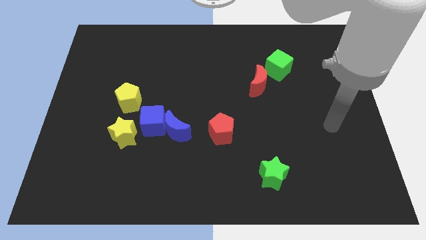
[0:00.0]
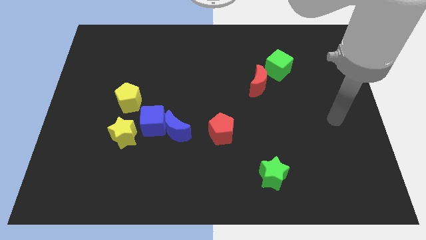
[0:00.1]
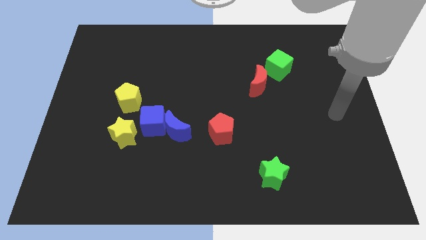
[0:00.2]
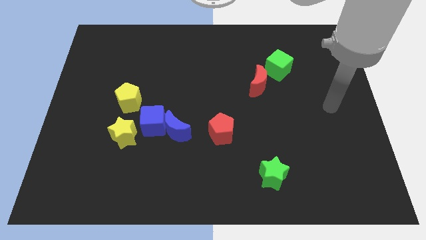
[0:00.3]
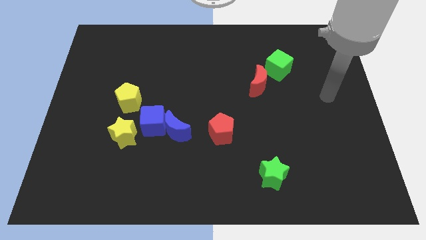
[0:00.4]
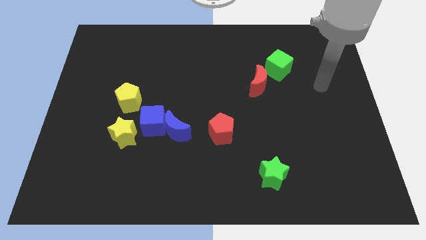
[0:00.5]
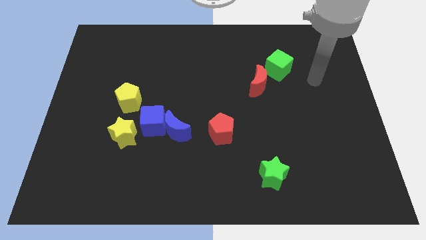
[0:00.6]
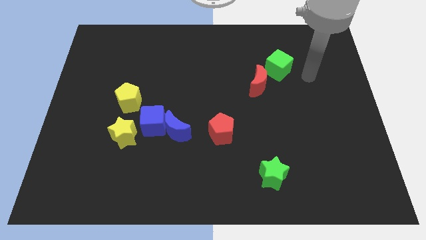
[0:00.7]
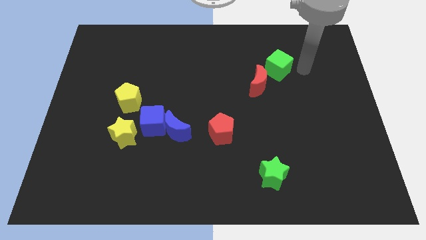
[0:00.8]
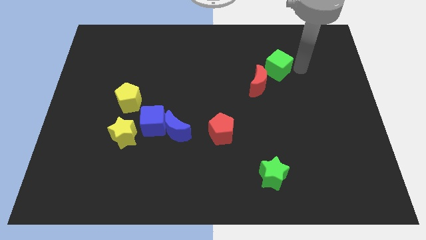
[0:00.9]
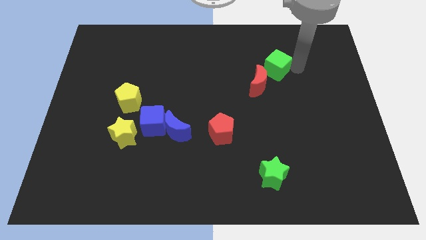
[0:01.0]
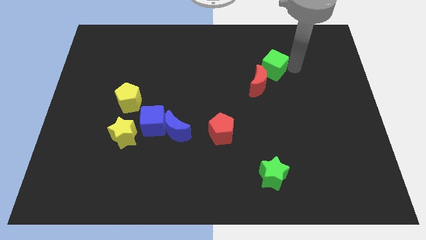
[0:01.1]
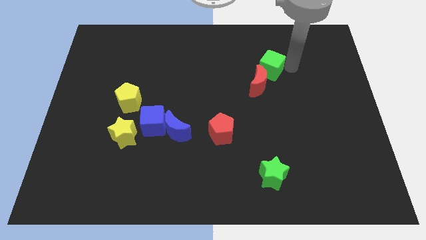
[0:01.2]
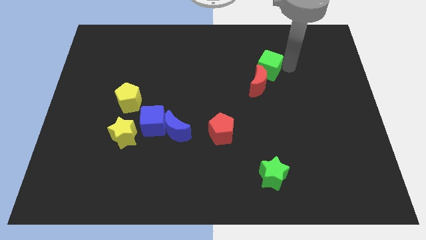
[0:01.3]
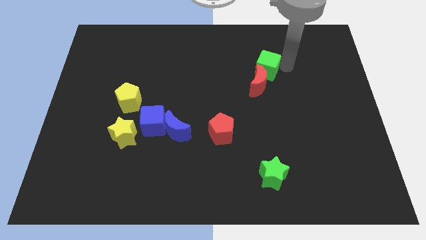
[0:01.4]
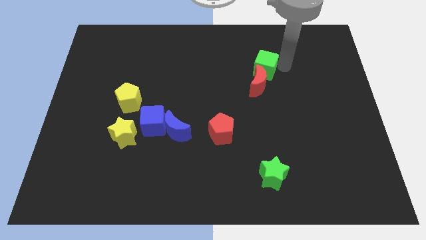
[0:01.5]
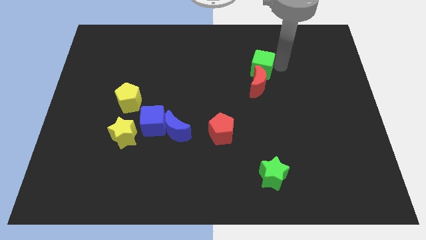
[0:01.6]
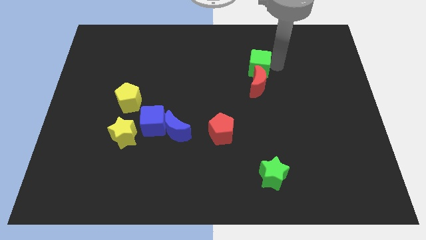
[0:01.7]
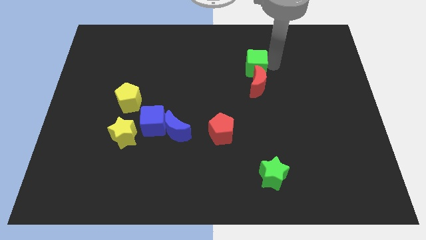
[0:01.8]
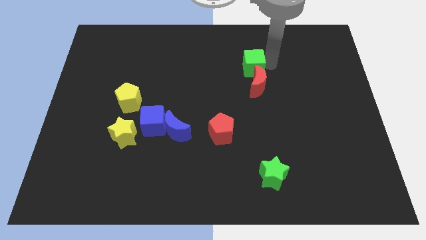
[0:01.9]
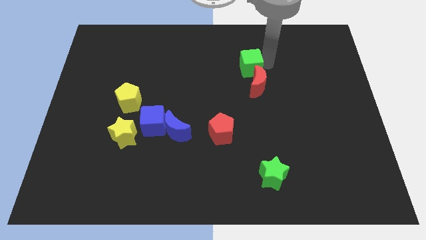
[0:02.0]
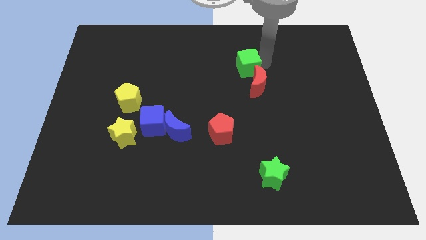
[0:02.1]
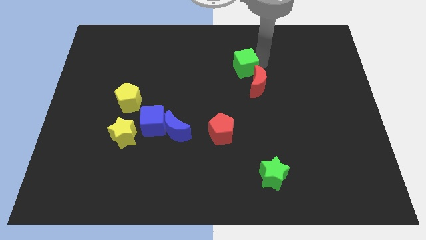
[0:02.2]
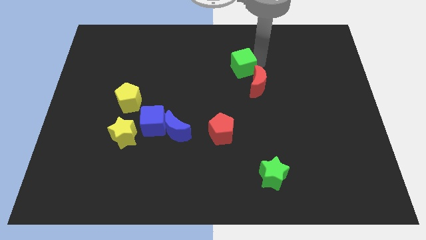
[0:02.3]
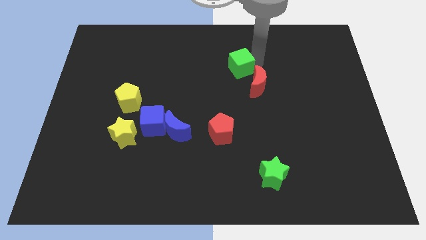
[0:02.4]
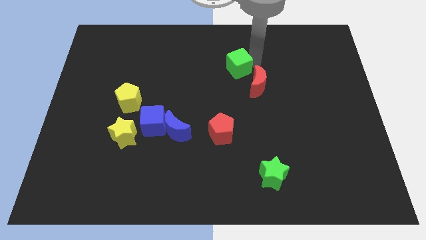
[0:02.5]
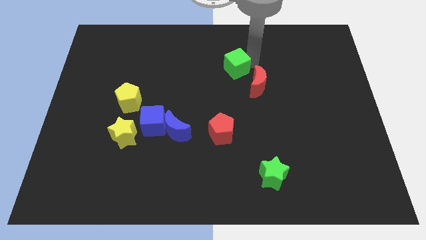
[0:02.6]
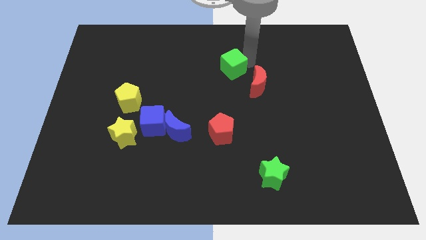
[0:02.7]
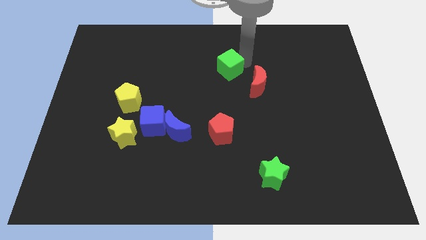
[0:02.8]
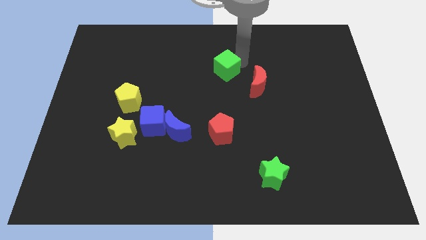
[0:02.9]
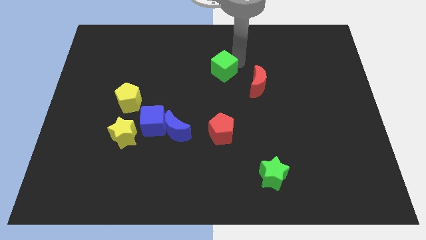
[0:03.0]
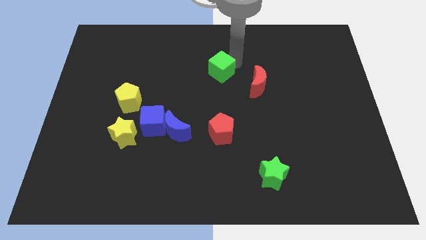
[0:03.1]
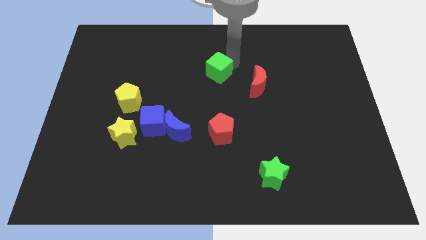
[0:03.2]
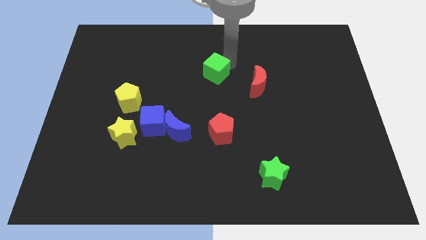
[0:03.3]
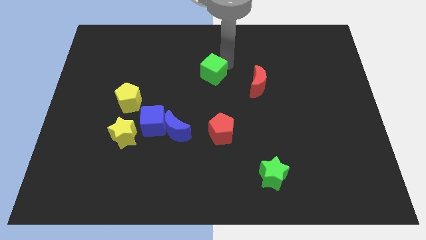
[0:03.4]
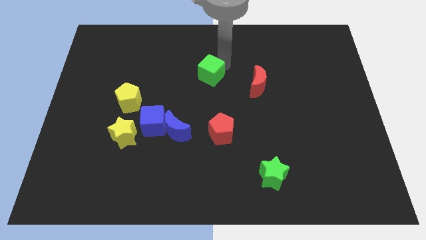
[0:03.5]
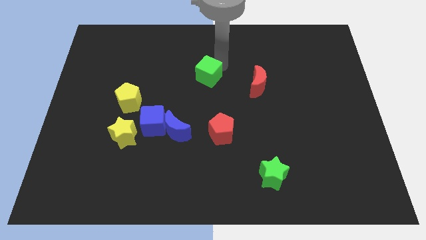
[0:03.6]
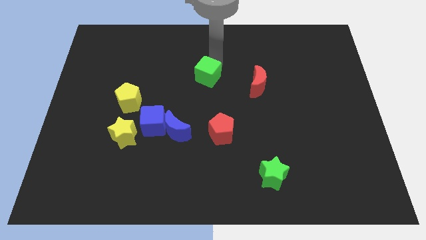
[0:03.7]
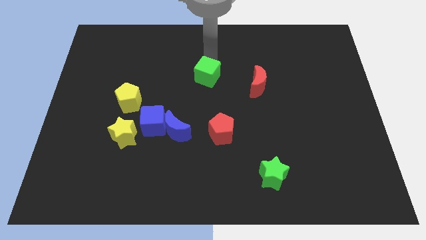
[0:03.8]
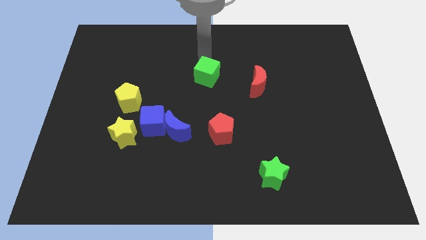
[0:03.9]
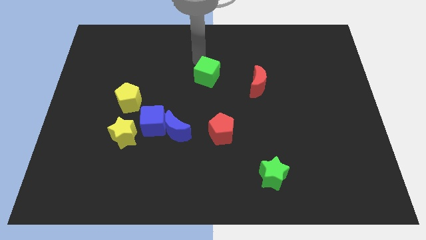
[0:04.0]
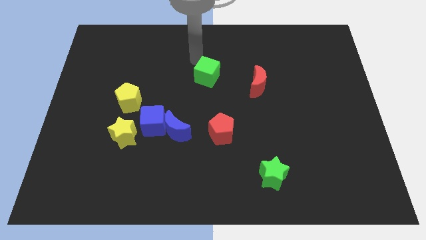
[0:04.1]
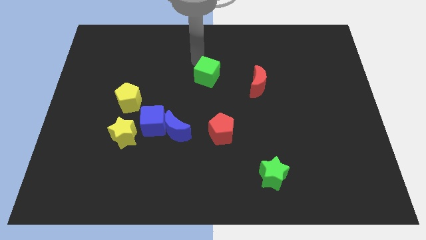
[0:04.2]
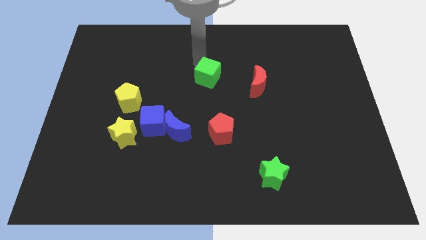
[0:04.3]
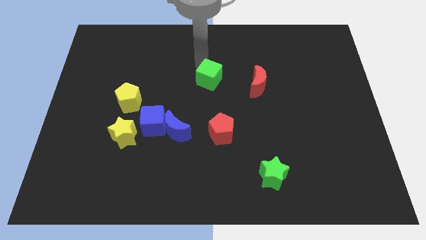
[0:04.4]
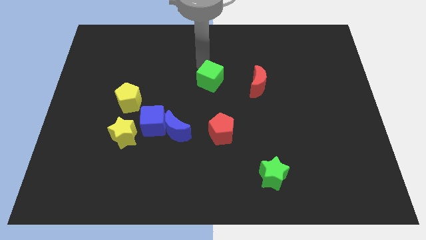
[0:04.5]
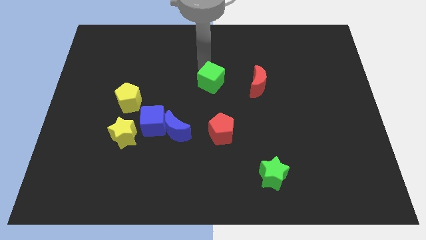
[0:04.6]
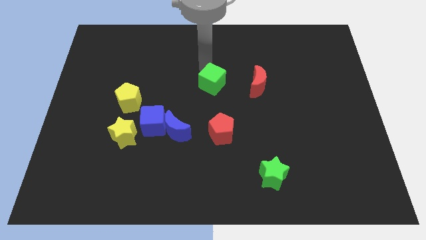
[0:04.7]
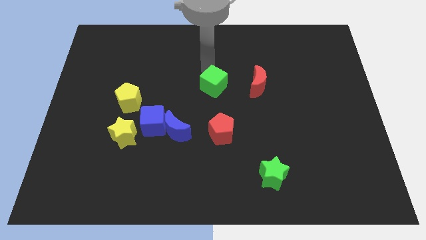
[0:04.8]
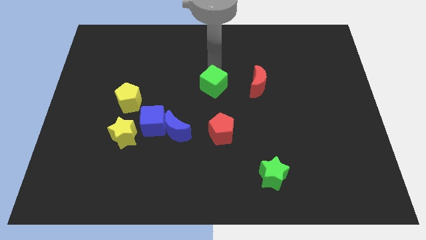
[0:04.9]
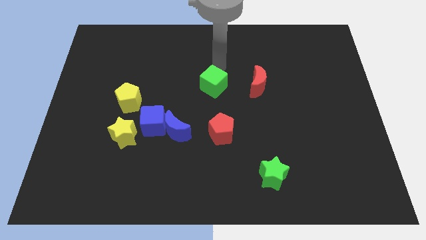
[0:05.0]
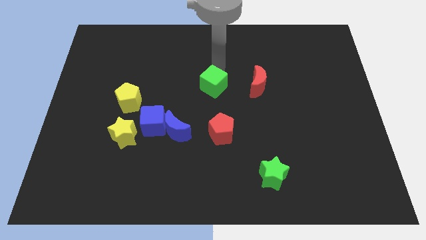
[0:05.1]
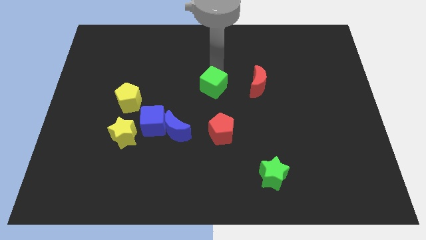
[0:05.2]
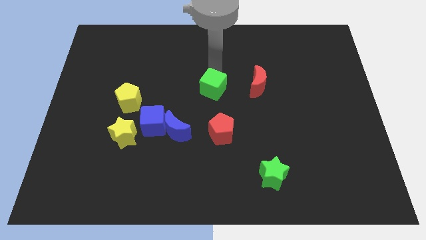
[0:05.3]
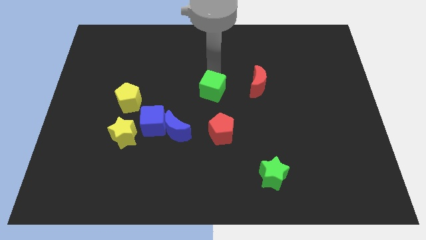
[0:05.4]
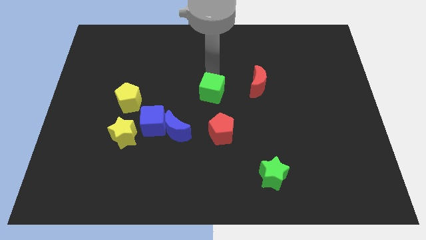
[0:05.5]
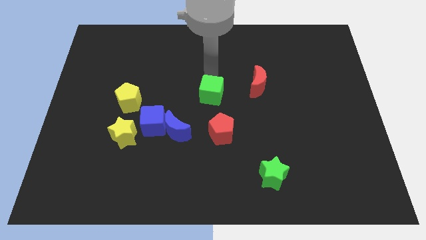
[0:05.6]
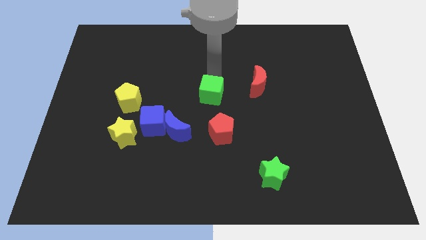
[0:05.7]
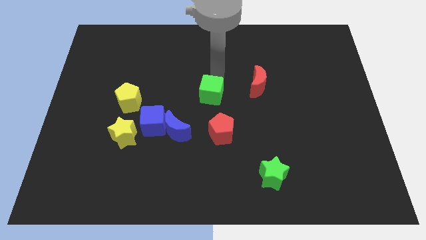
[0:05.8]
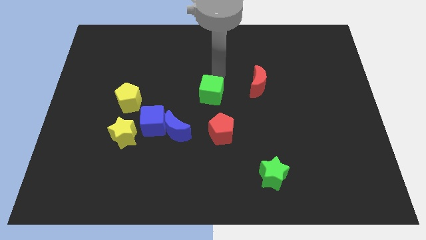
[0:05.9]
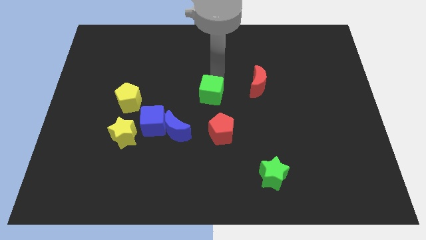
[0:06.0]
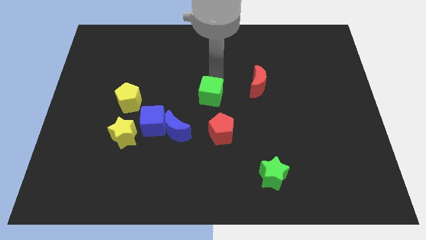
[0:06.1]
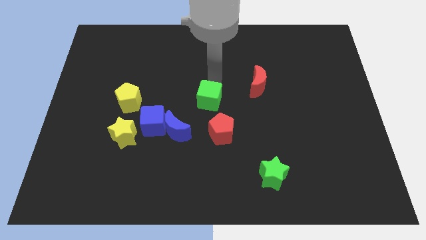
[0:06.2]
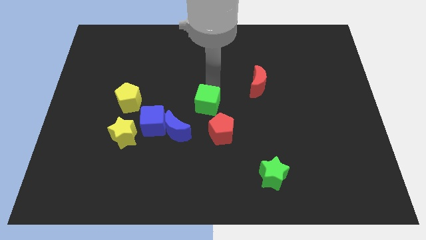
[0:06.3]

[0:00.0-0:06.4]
slide the green cube diagonally down and to the left

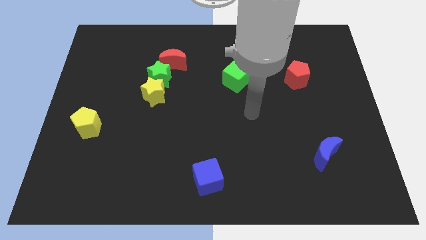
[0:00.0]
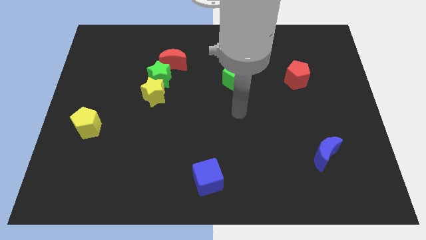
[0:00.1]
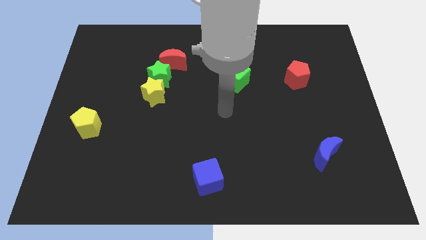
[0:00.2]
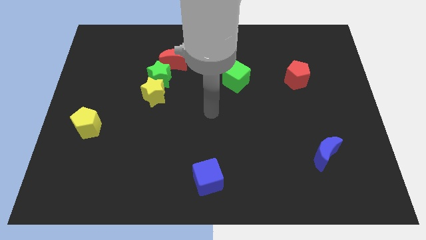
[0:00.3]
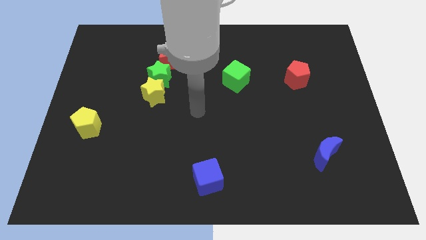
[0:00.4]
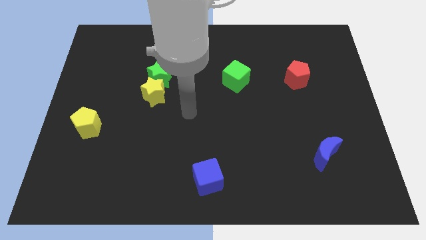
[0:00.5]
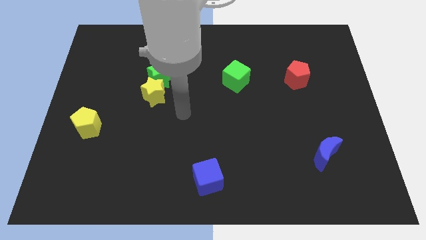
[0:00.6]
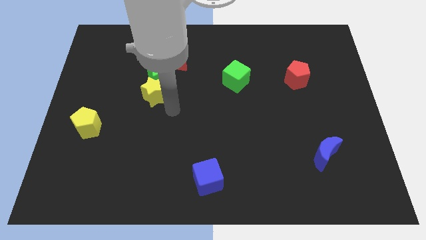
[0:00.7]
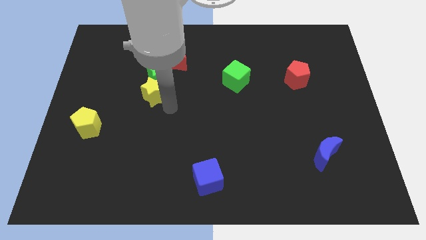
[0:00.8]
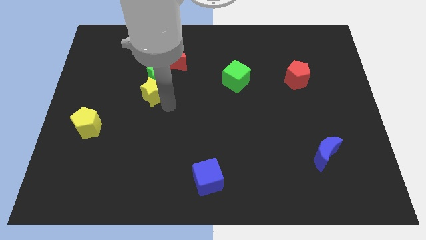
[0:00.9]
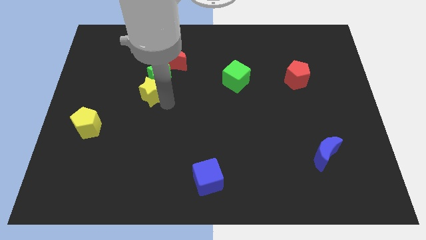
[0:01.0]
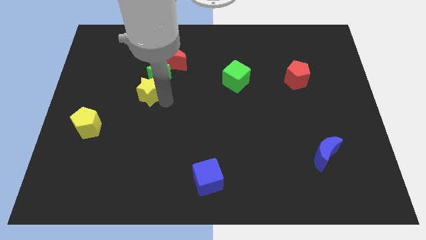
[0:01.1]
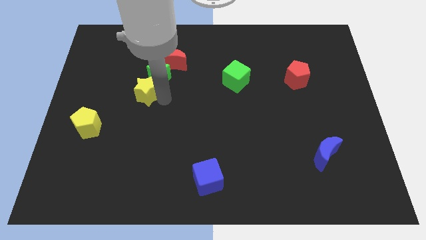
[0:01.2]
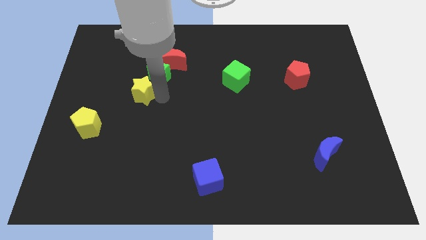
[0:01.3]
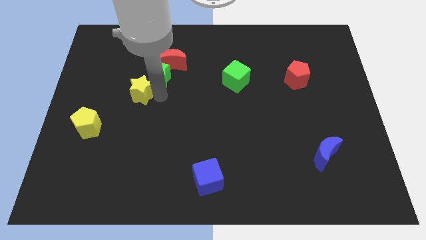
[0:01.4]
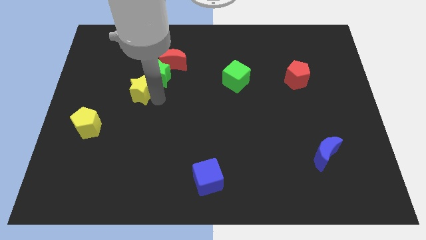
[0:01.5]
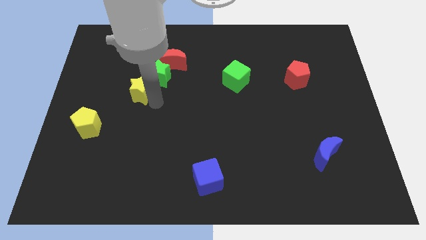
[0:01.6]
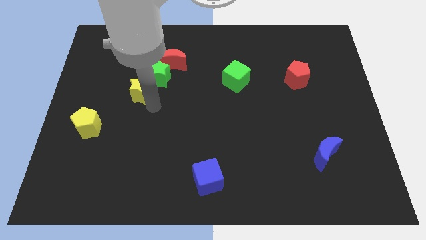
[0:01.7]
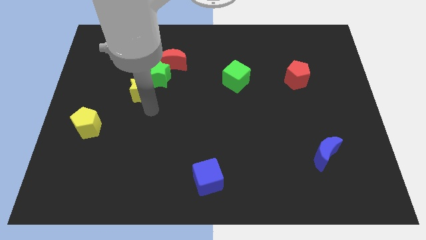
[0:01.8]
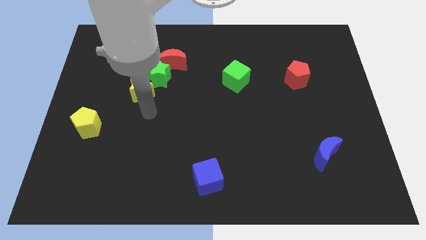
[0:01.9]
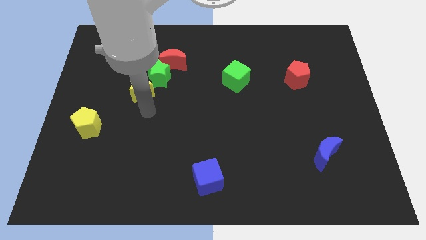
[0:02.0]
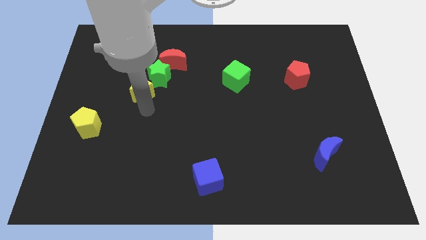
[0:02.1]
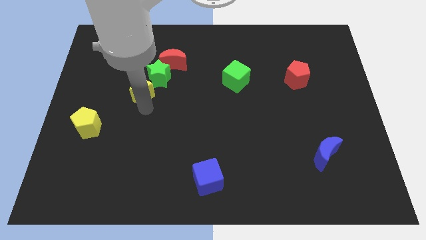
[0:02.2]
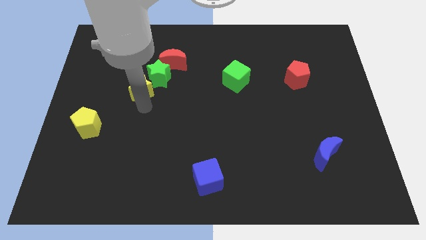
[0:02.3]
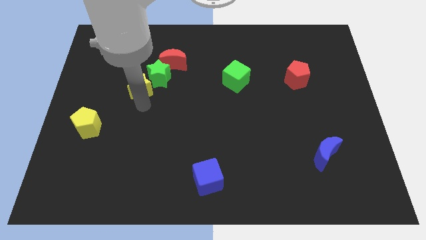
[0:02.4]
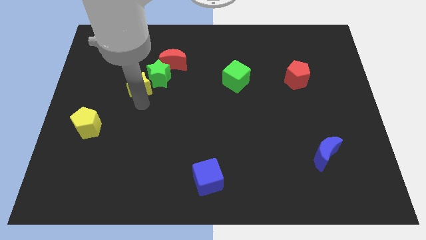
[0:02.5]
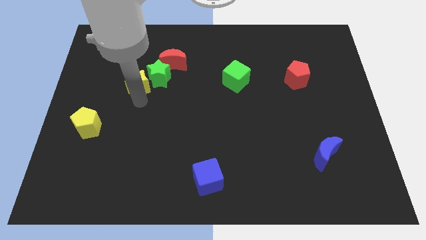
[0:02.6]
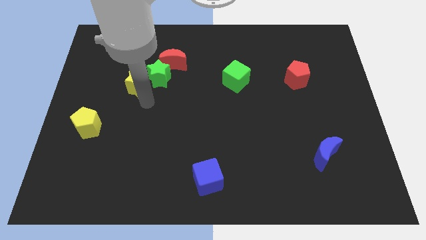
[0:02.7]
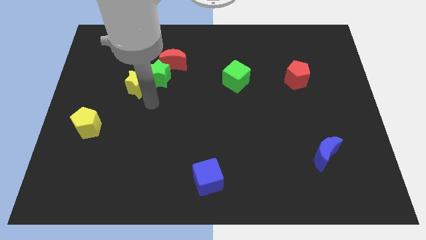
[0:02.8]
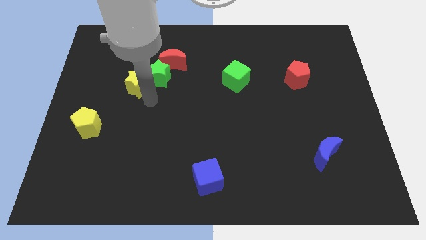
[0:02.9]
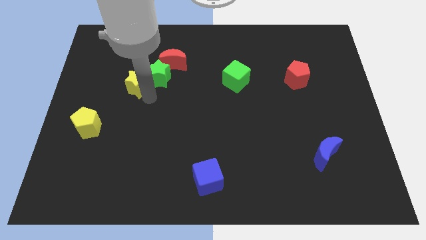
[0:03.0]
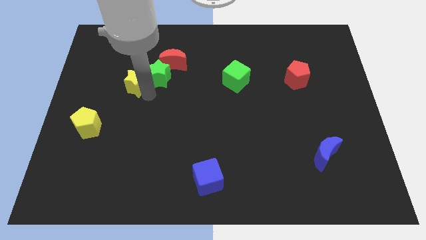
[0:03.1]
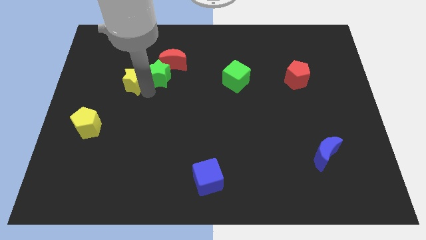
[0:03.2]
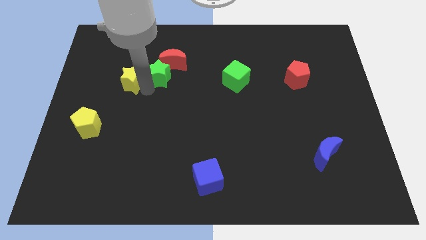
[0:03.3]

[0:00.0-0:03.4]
slightly slide the yellow star diagonally upwards and to the left
